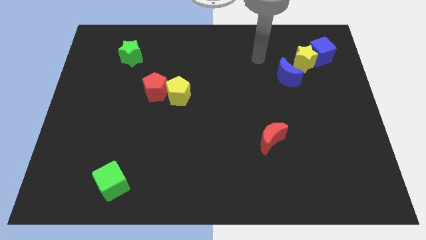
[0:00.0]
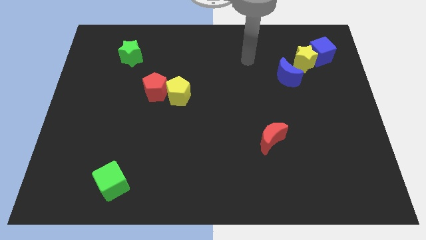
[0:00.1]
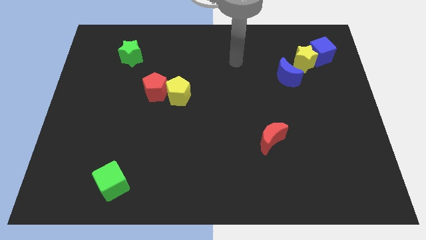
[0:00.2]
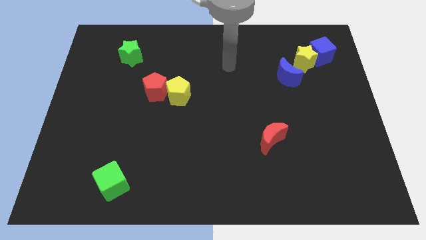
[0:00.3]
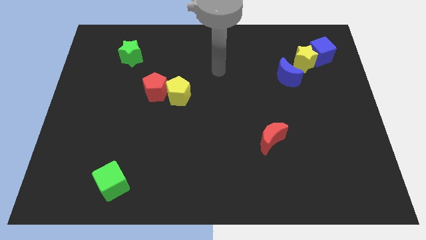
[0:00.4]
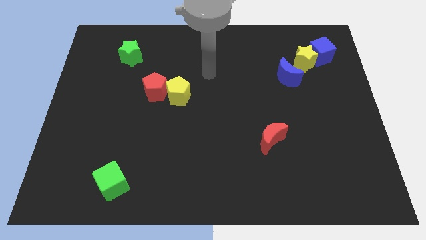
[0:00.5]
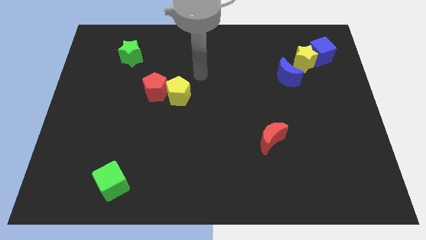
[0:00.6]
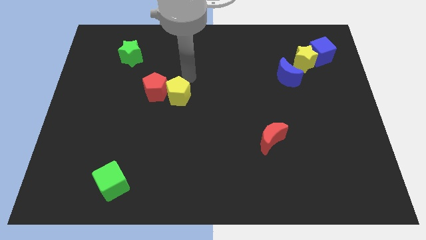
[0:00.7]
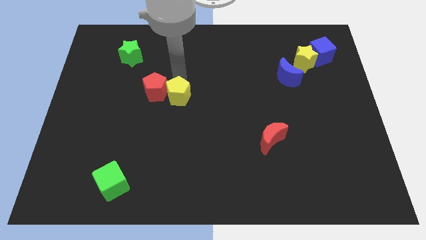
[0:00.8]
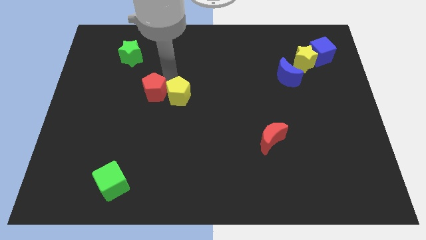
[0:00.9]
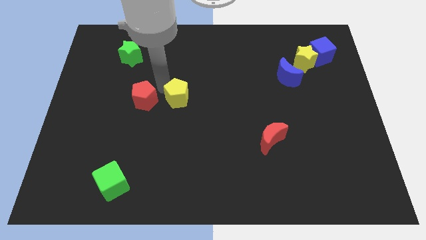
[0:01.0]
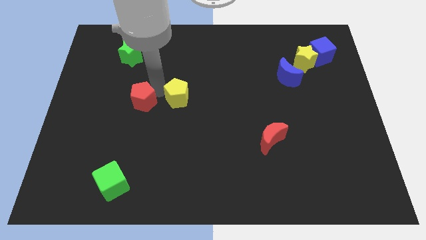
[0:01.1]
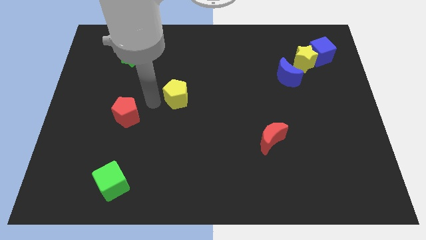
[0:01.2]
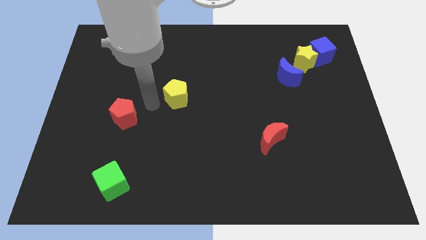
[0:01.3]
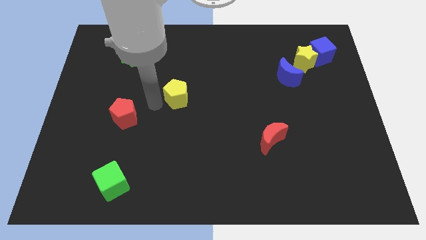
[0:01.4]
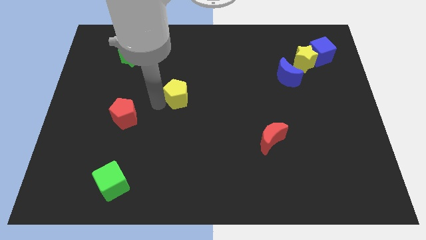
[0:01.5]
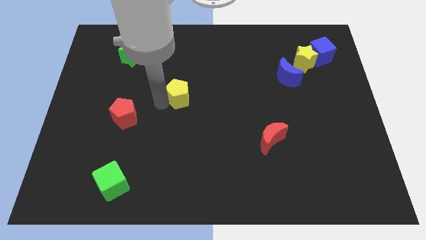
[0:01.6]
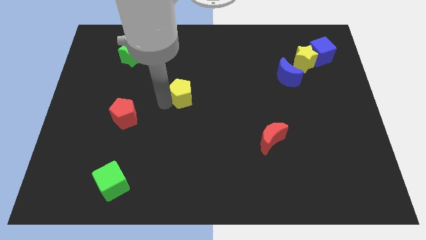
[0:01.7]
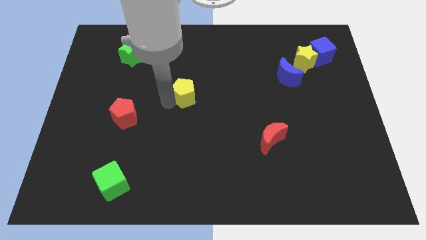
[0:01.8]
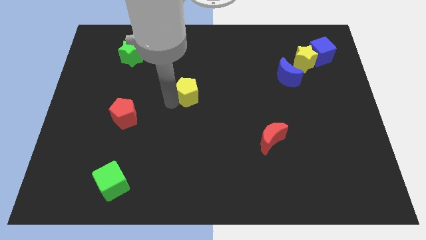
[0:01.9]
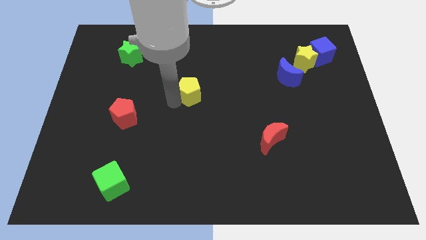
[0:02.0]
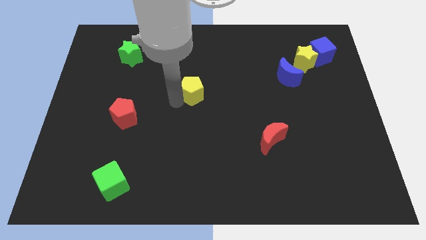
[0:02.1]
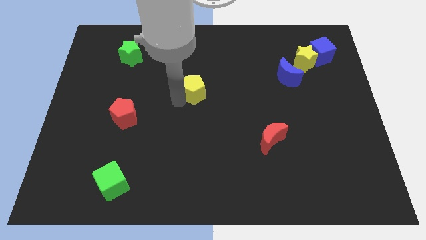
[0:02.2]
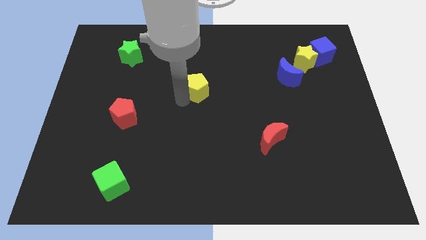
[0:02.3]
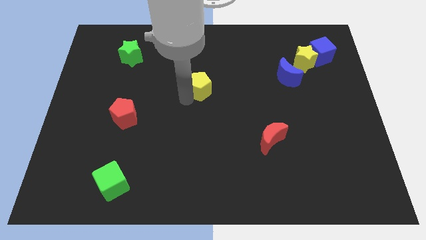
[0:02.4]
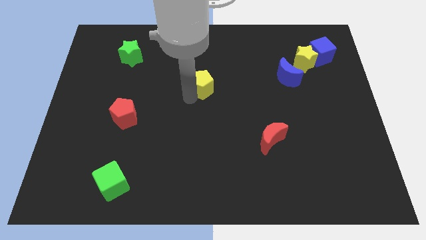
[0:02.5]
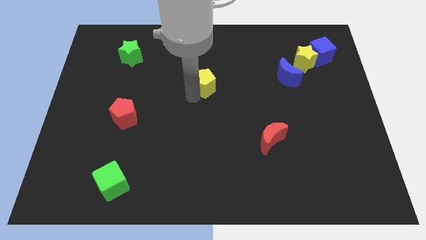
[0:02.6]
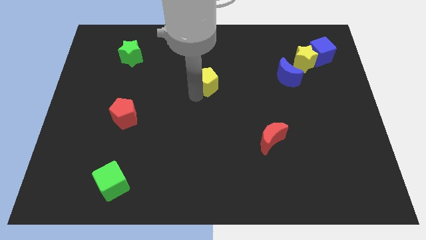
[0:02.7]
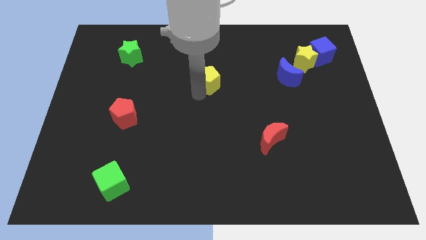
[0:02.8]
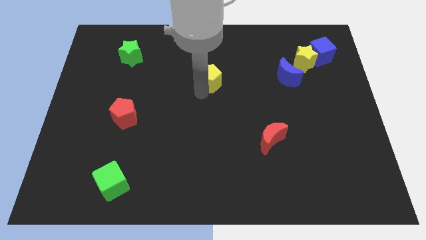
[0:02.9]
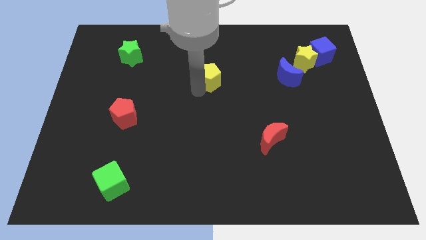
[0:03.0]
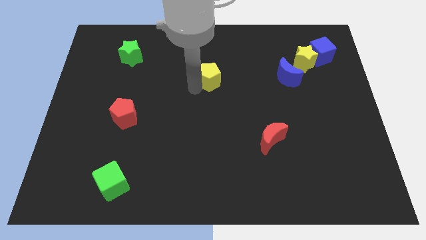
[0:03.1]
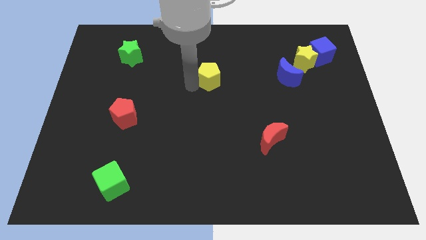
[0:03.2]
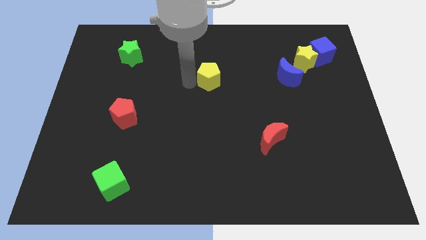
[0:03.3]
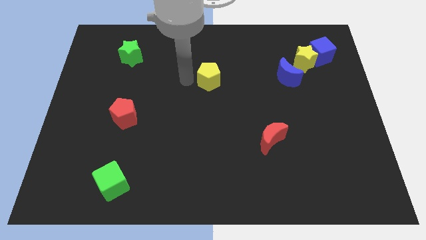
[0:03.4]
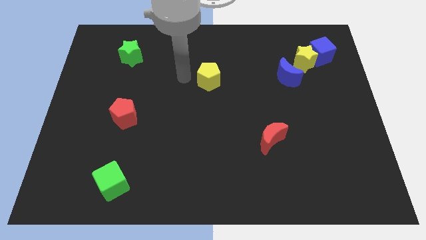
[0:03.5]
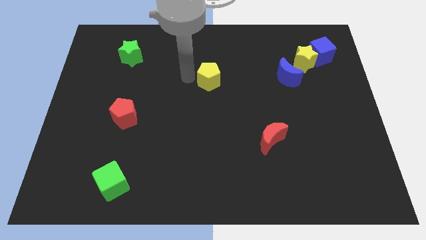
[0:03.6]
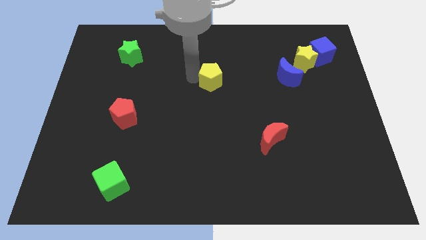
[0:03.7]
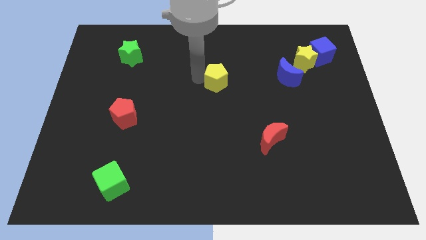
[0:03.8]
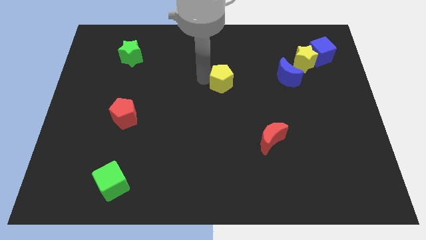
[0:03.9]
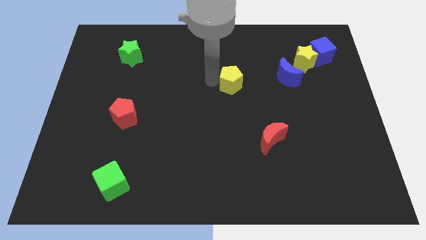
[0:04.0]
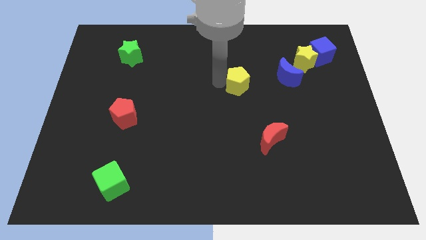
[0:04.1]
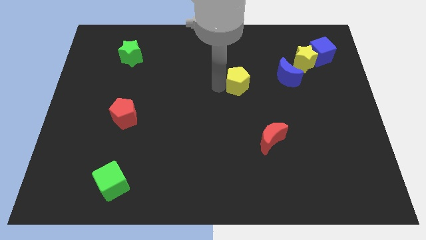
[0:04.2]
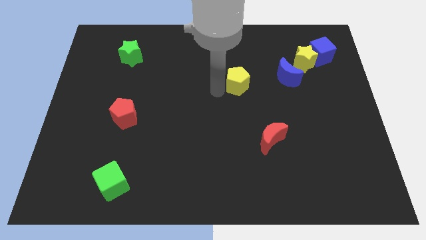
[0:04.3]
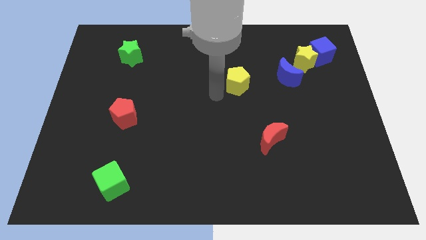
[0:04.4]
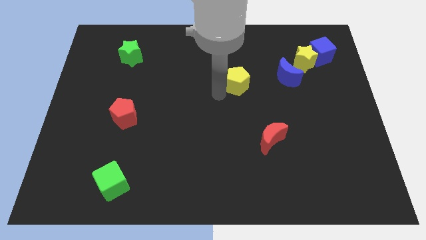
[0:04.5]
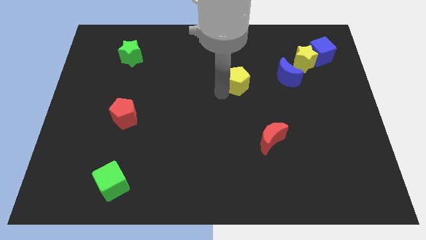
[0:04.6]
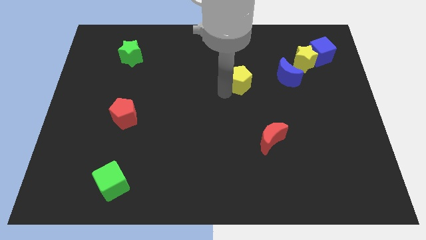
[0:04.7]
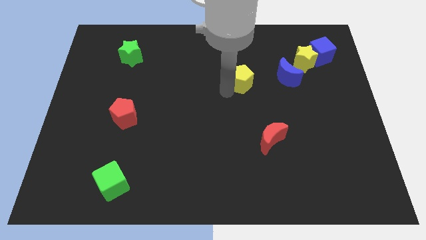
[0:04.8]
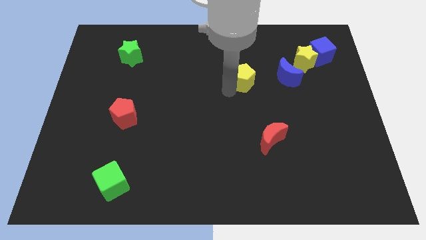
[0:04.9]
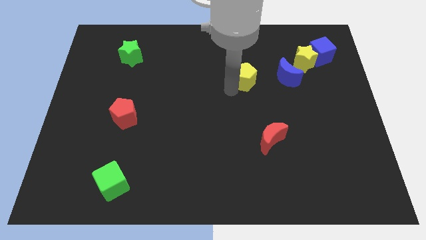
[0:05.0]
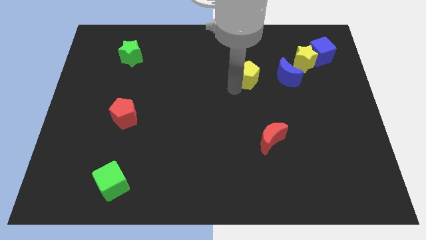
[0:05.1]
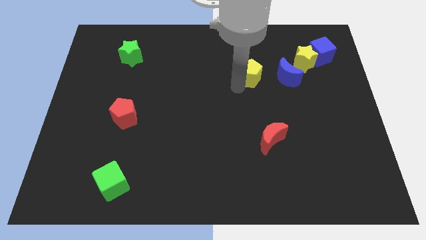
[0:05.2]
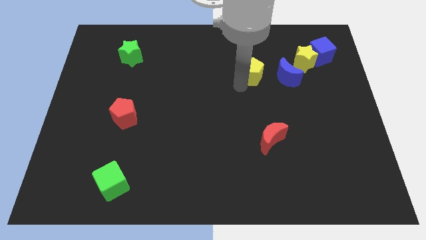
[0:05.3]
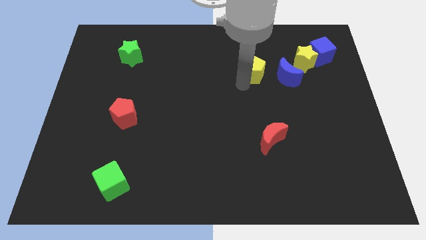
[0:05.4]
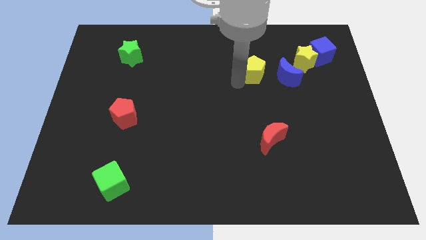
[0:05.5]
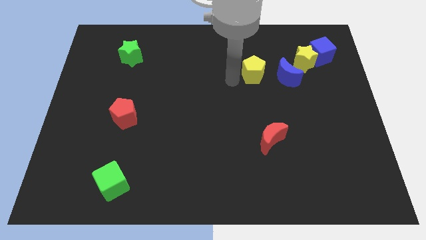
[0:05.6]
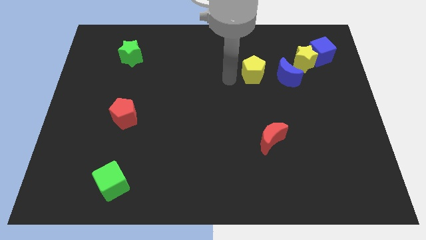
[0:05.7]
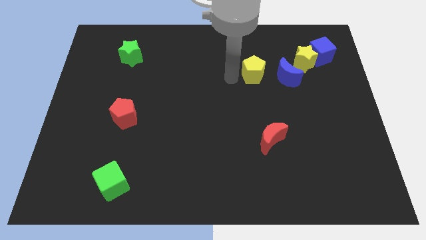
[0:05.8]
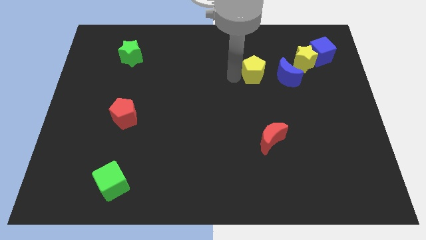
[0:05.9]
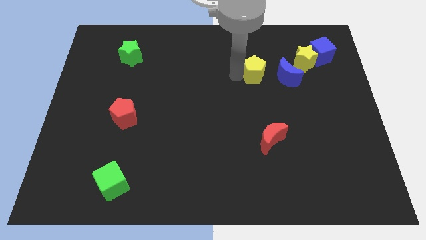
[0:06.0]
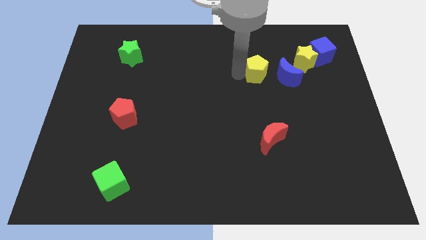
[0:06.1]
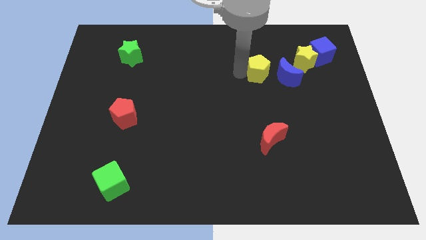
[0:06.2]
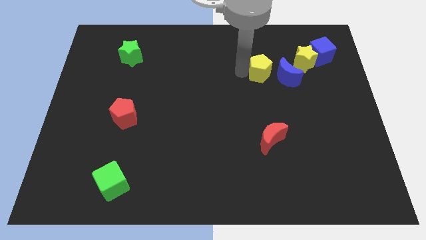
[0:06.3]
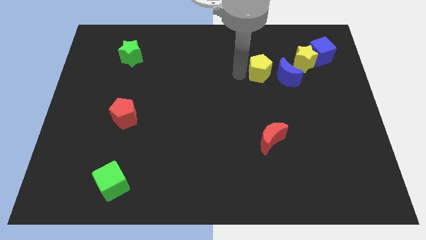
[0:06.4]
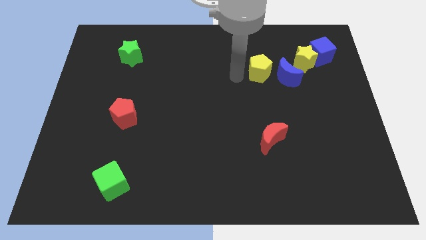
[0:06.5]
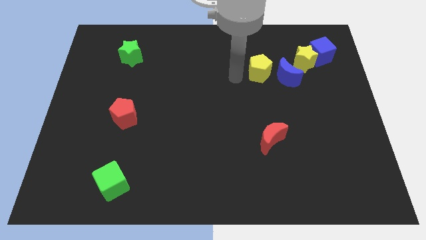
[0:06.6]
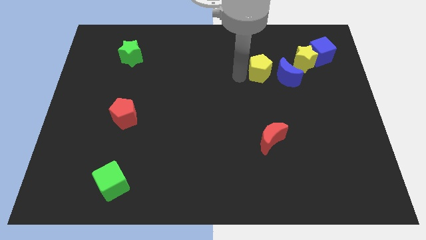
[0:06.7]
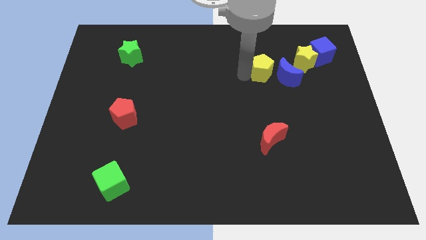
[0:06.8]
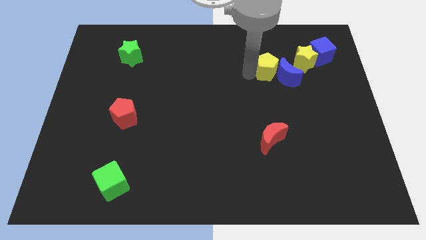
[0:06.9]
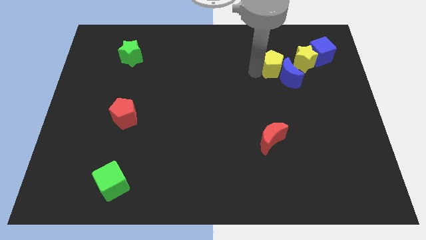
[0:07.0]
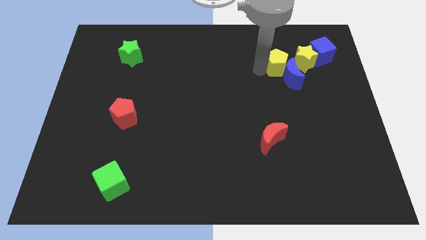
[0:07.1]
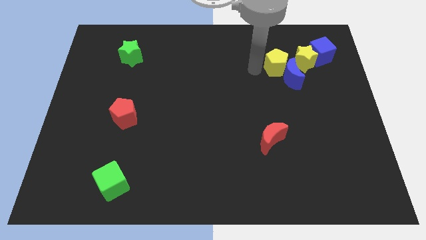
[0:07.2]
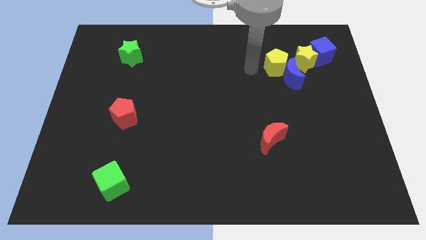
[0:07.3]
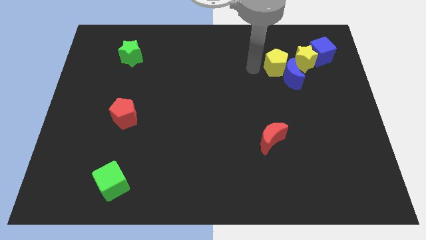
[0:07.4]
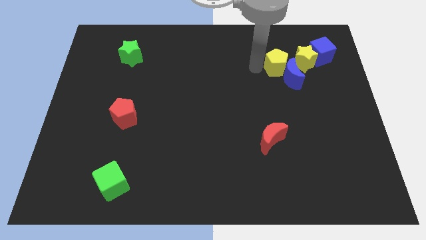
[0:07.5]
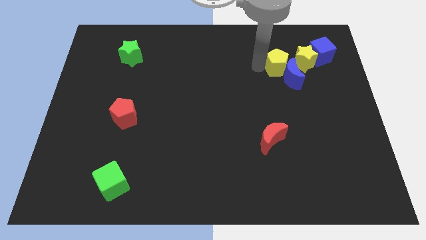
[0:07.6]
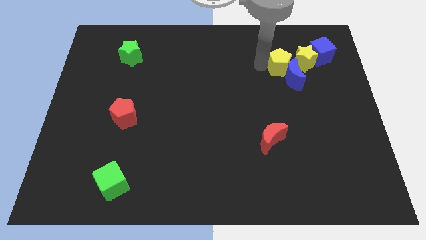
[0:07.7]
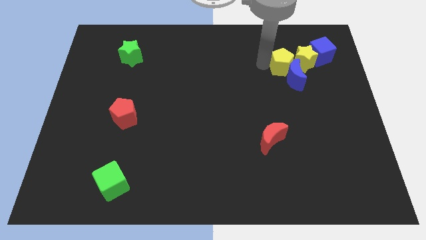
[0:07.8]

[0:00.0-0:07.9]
move the yellow pentagon close to the yellow star
